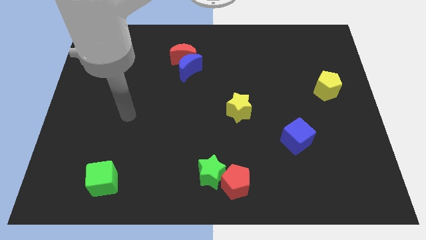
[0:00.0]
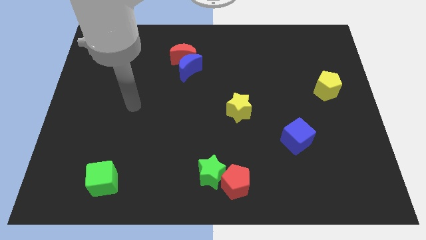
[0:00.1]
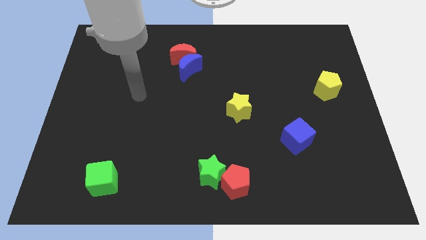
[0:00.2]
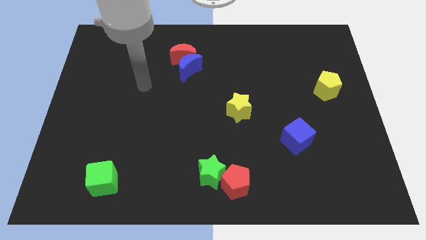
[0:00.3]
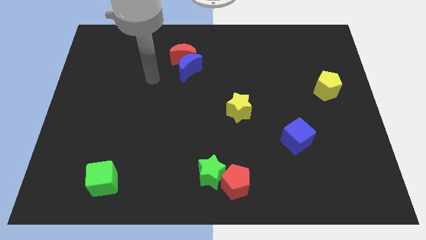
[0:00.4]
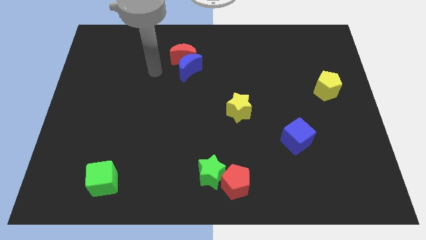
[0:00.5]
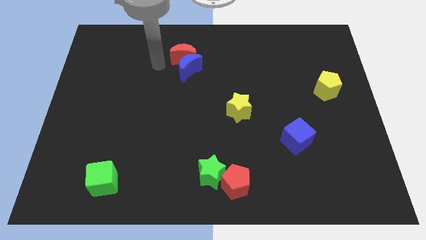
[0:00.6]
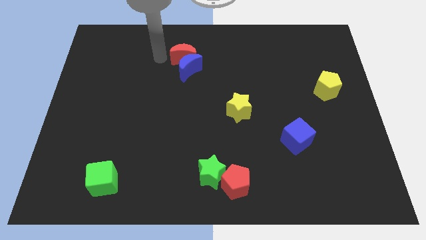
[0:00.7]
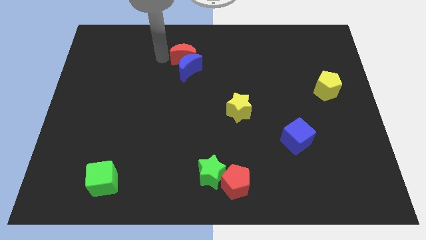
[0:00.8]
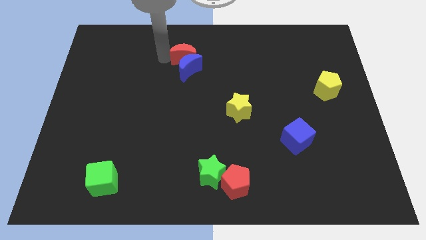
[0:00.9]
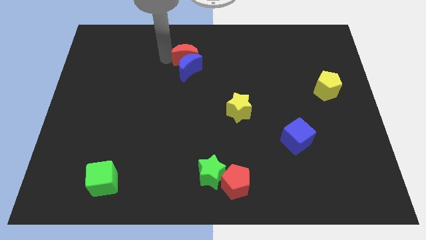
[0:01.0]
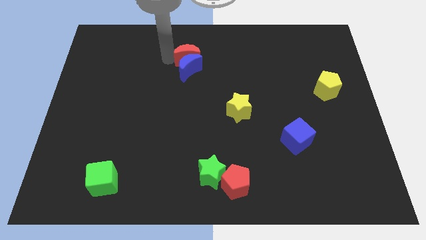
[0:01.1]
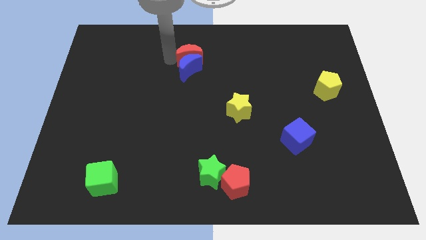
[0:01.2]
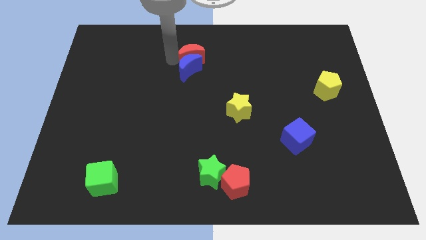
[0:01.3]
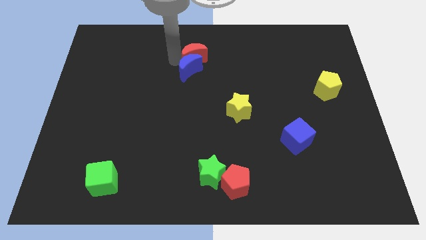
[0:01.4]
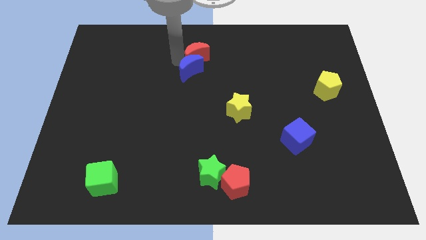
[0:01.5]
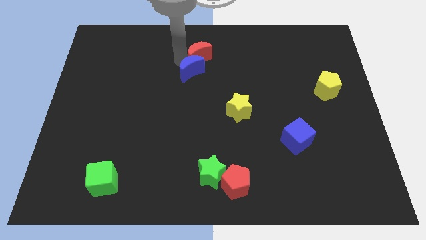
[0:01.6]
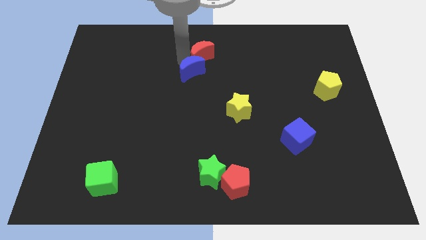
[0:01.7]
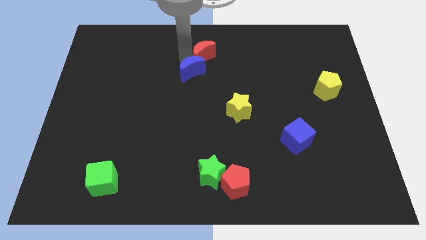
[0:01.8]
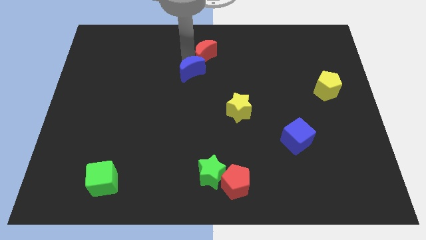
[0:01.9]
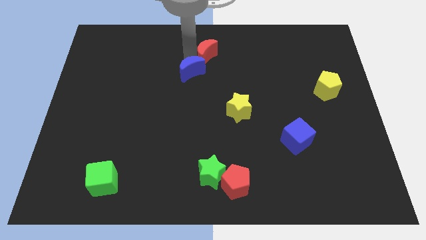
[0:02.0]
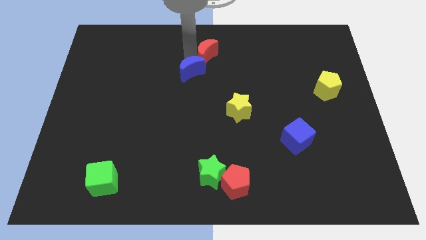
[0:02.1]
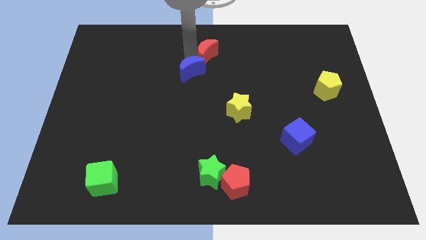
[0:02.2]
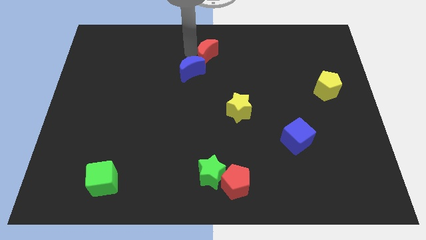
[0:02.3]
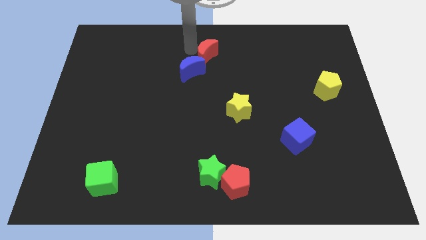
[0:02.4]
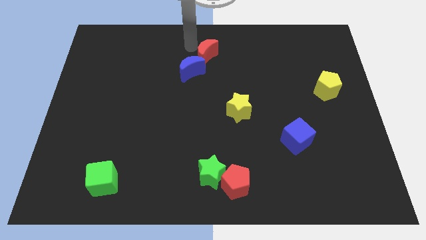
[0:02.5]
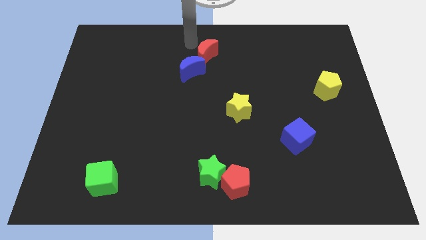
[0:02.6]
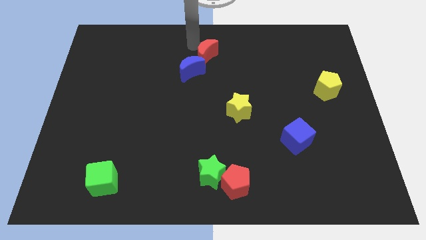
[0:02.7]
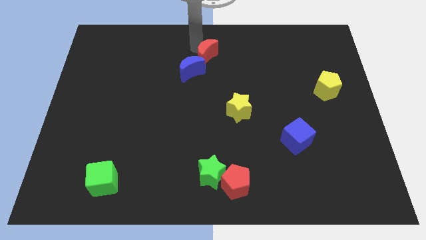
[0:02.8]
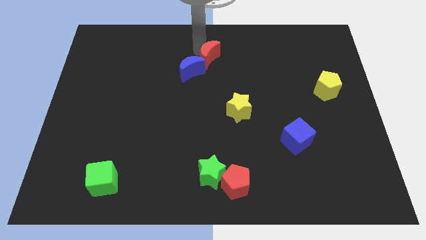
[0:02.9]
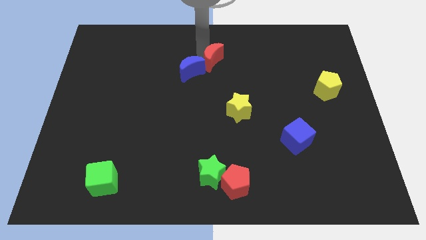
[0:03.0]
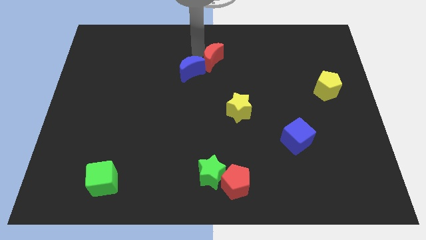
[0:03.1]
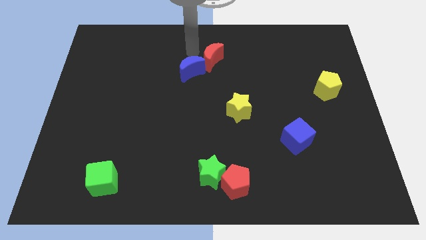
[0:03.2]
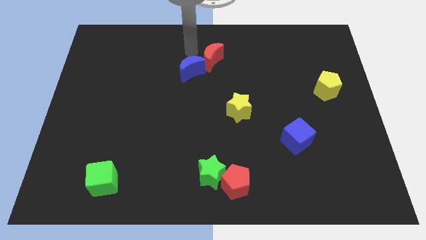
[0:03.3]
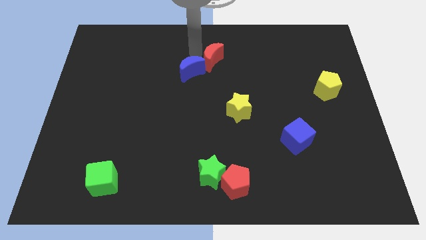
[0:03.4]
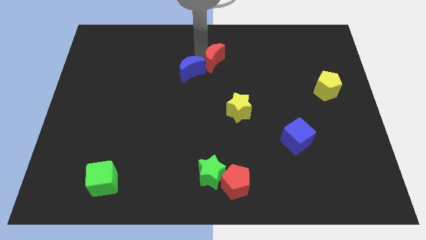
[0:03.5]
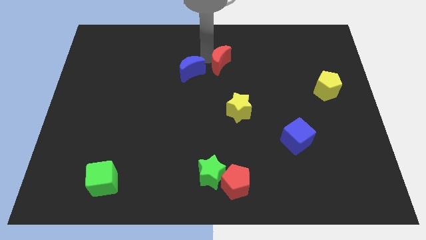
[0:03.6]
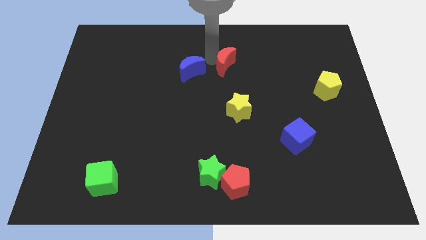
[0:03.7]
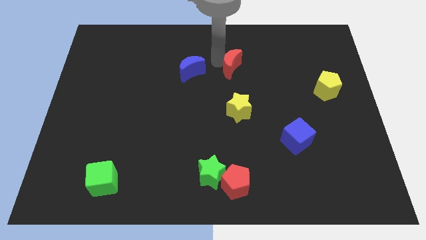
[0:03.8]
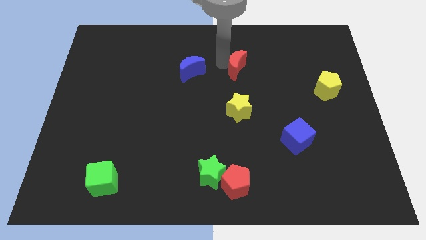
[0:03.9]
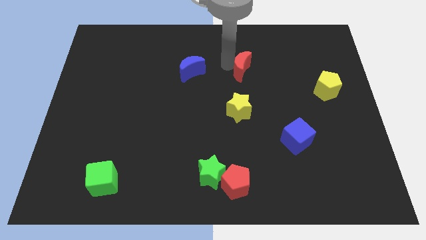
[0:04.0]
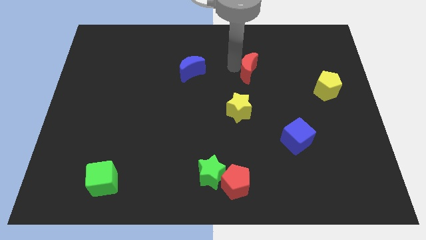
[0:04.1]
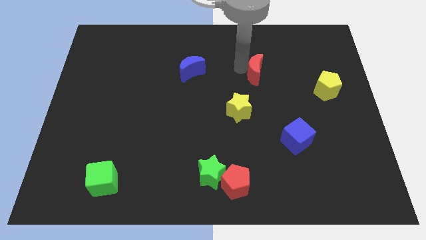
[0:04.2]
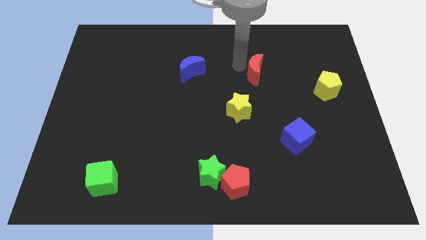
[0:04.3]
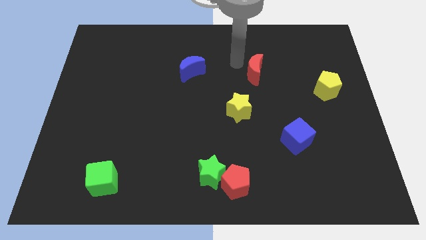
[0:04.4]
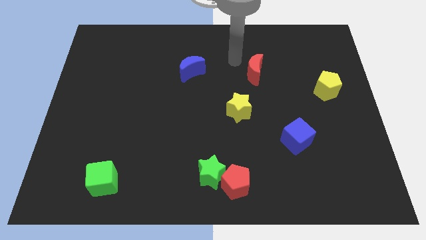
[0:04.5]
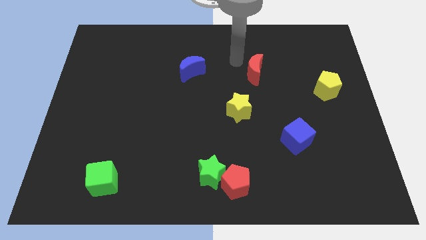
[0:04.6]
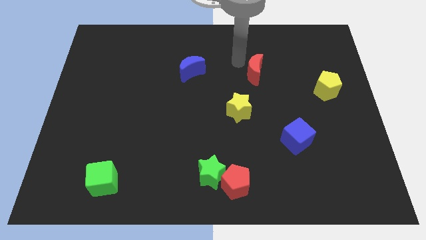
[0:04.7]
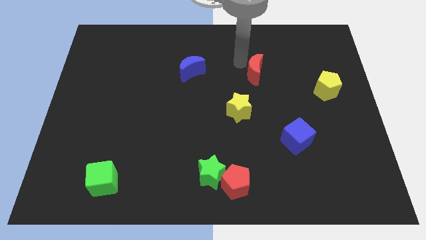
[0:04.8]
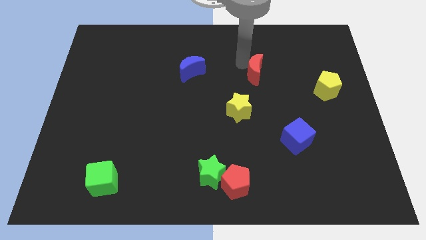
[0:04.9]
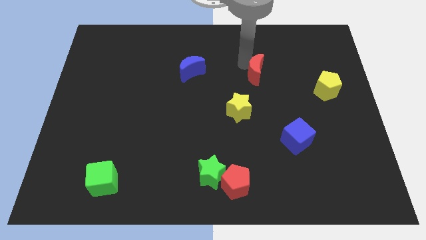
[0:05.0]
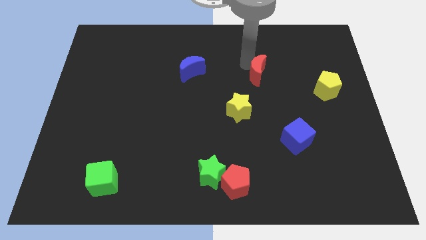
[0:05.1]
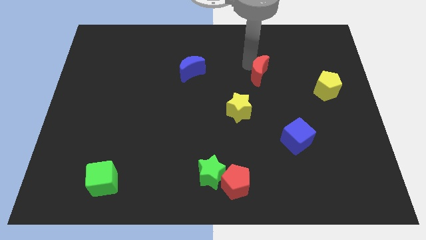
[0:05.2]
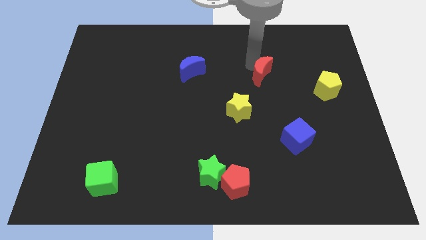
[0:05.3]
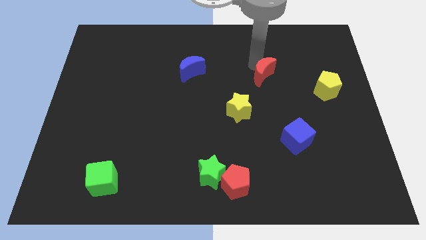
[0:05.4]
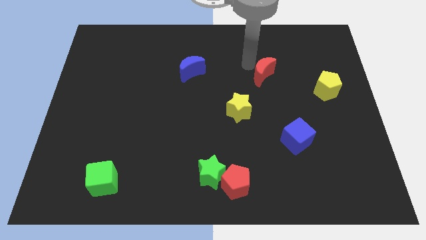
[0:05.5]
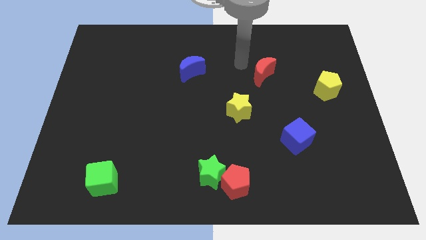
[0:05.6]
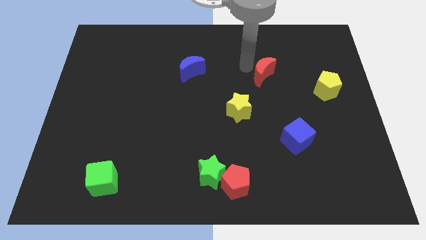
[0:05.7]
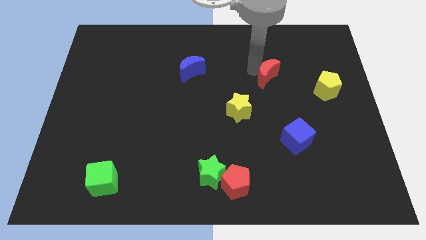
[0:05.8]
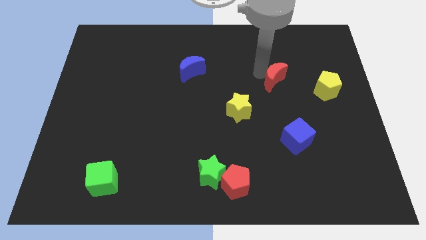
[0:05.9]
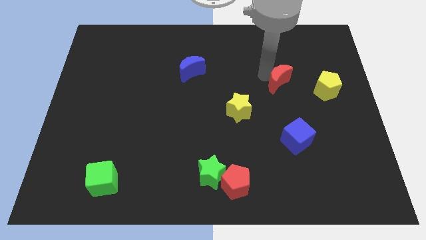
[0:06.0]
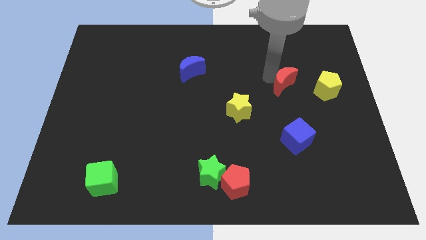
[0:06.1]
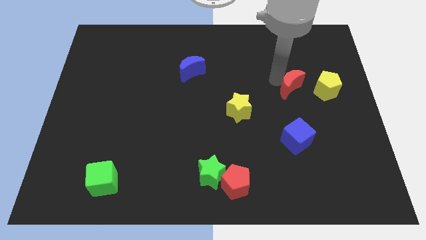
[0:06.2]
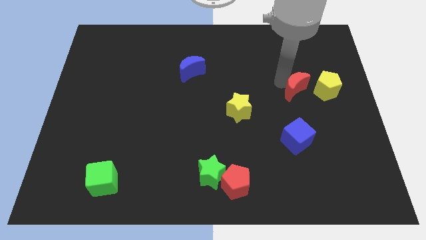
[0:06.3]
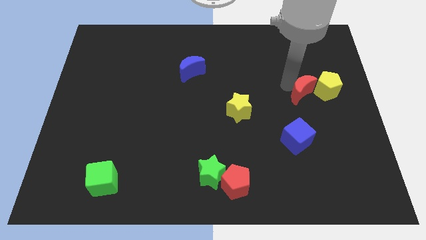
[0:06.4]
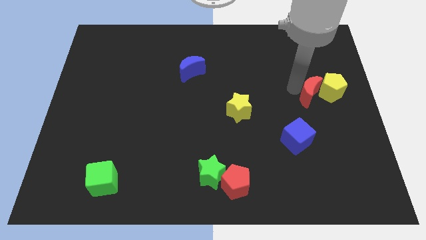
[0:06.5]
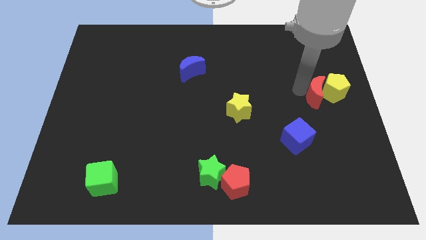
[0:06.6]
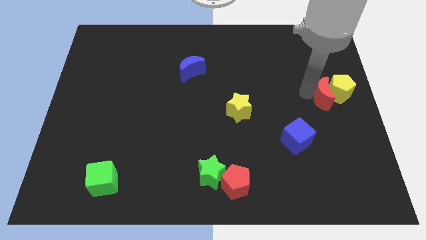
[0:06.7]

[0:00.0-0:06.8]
move the red moon to the right side
